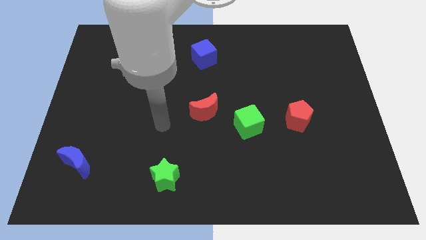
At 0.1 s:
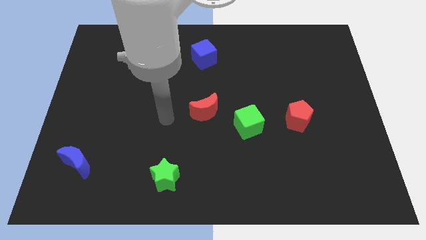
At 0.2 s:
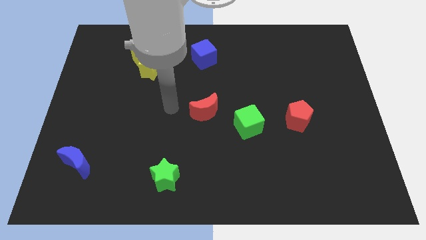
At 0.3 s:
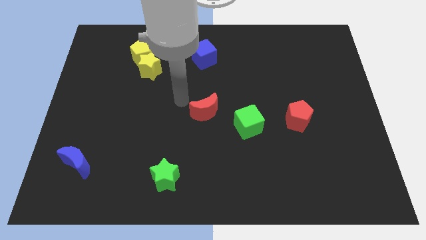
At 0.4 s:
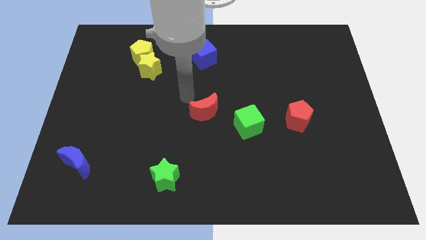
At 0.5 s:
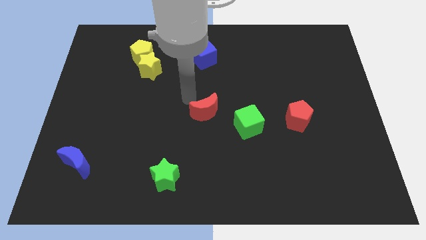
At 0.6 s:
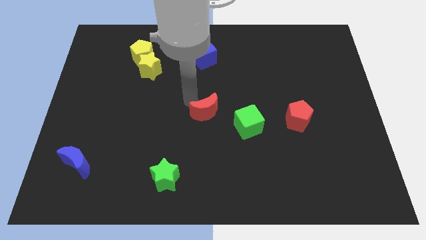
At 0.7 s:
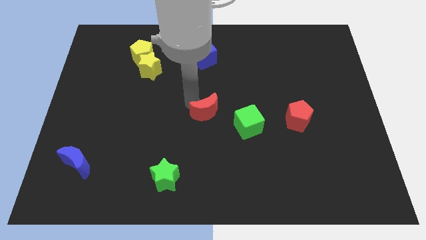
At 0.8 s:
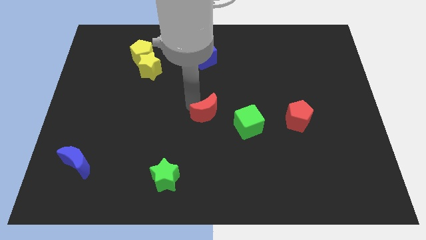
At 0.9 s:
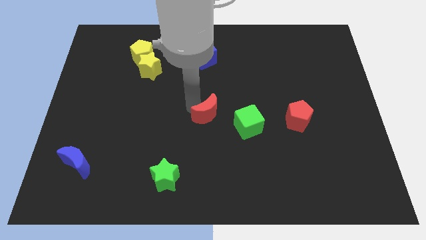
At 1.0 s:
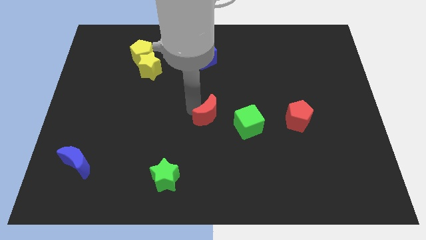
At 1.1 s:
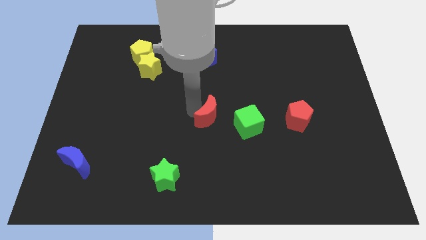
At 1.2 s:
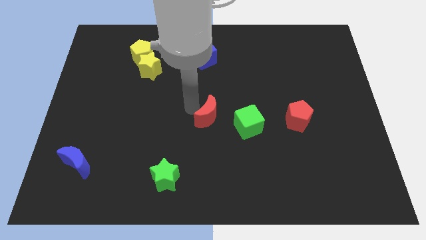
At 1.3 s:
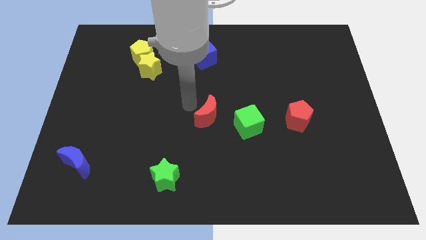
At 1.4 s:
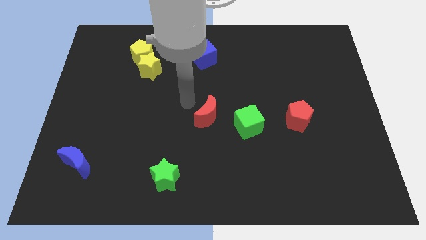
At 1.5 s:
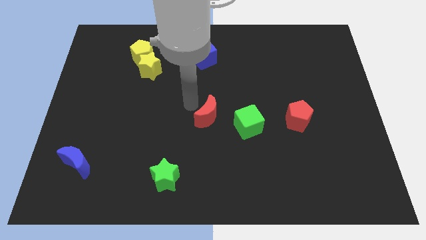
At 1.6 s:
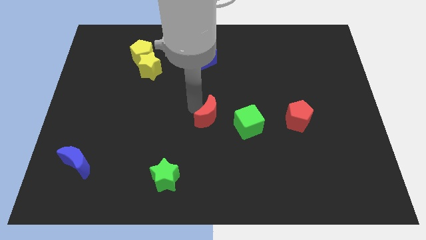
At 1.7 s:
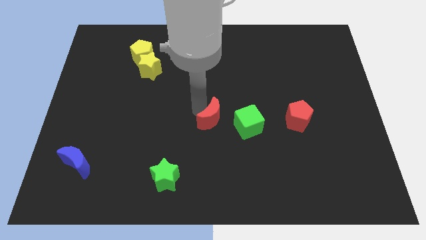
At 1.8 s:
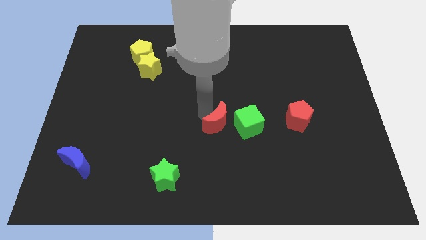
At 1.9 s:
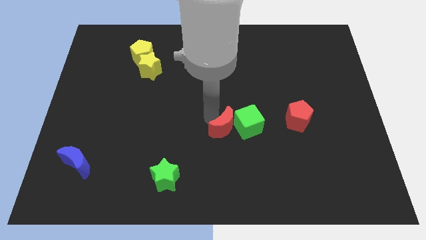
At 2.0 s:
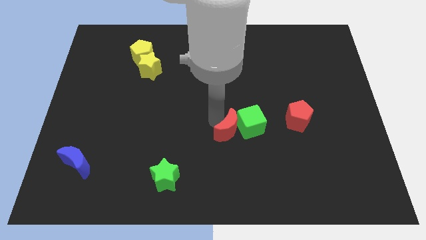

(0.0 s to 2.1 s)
push the red moon somewhat downwards and then right

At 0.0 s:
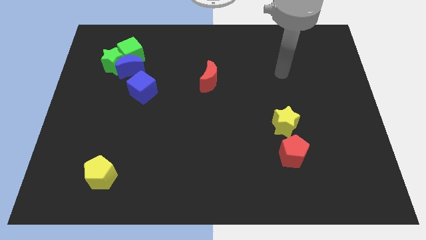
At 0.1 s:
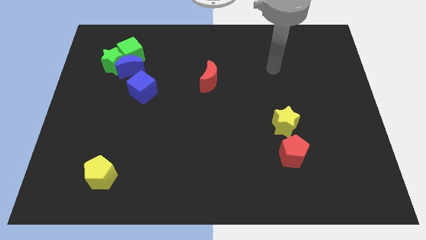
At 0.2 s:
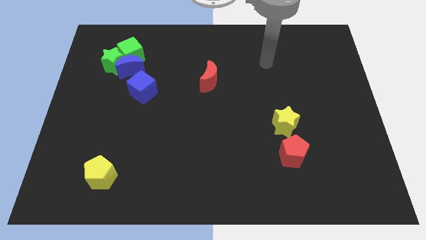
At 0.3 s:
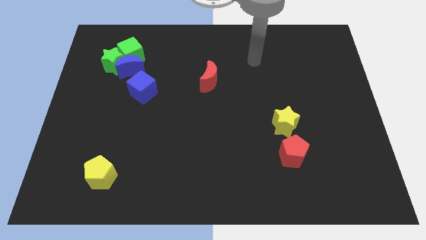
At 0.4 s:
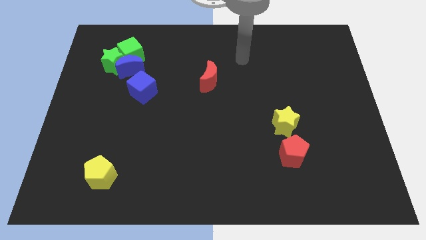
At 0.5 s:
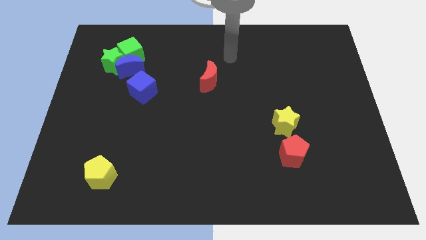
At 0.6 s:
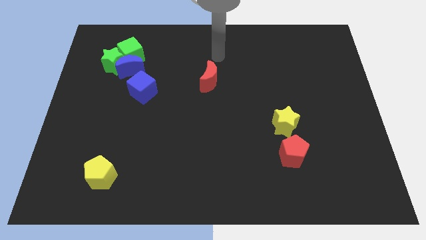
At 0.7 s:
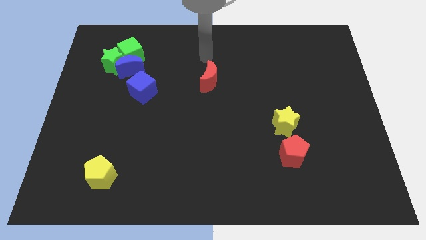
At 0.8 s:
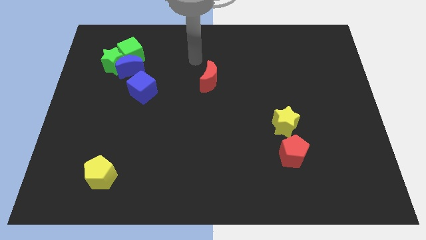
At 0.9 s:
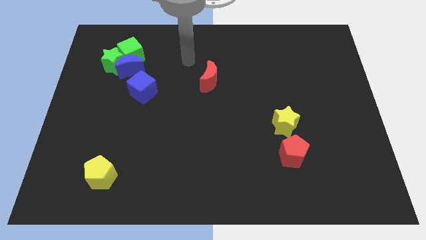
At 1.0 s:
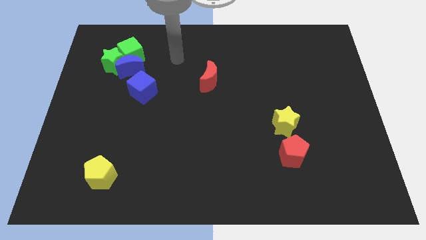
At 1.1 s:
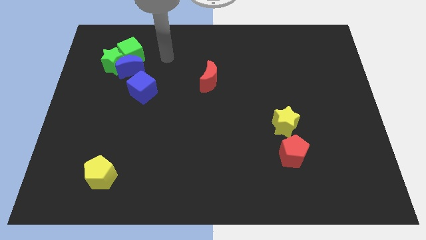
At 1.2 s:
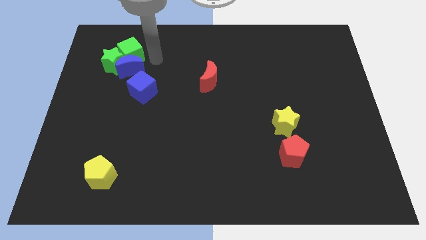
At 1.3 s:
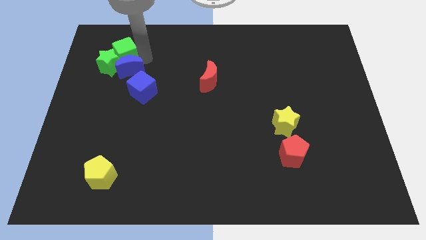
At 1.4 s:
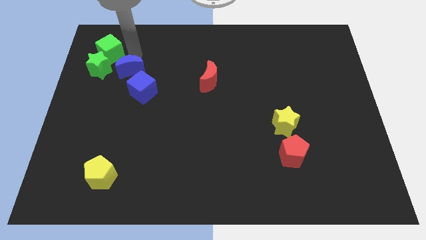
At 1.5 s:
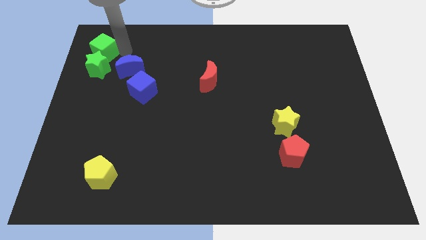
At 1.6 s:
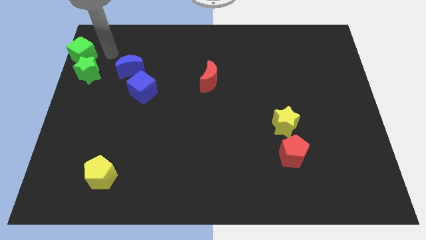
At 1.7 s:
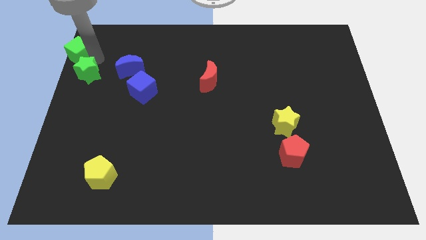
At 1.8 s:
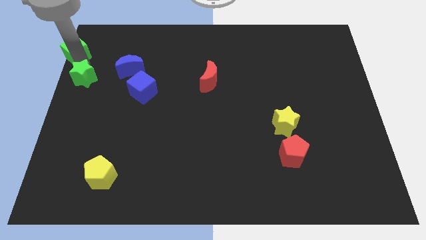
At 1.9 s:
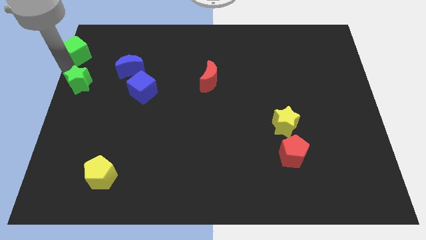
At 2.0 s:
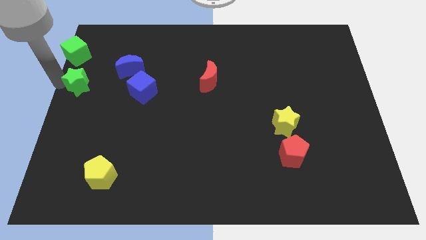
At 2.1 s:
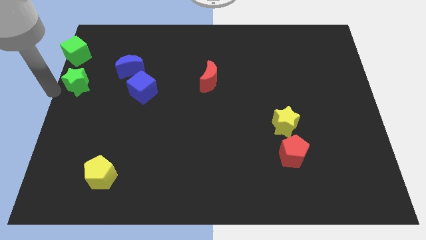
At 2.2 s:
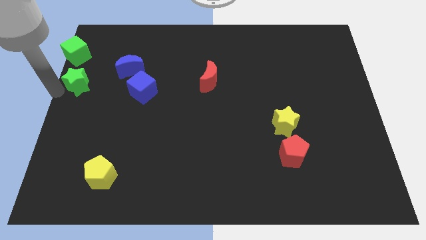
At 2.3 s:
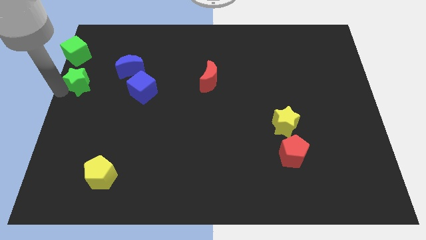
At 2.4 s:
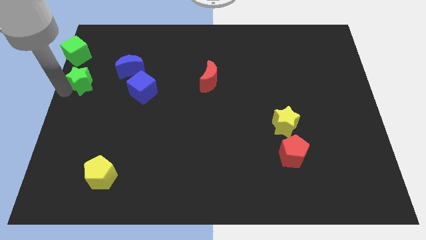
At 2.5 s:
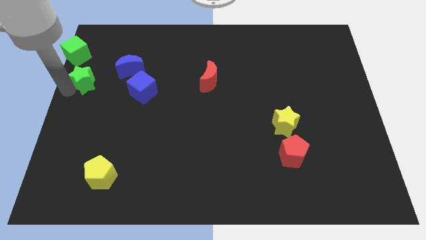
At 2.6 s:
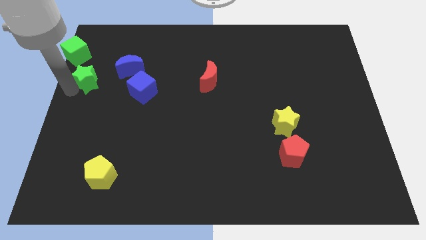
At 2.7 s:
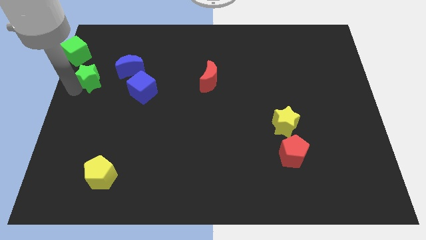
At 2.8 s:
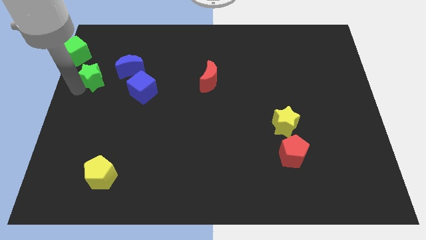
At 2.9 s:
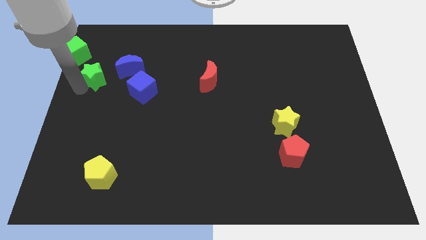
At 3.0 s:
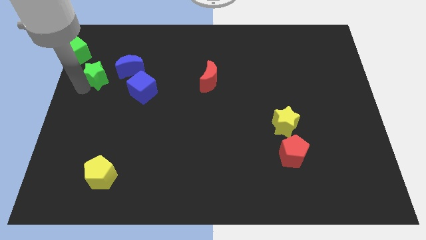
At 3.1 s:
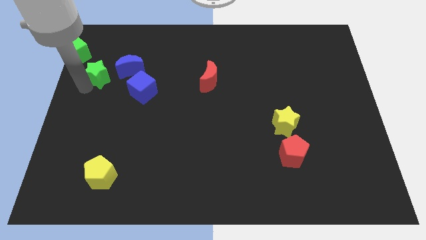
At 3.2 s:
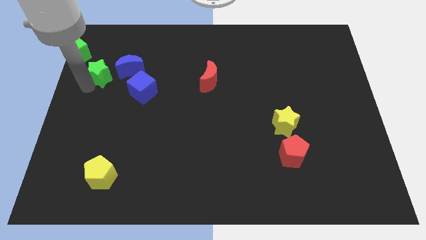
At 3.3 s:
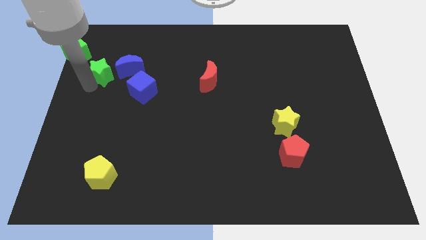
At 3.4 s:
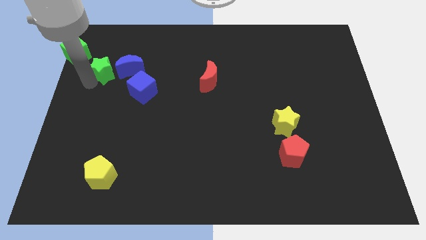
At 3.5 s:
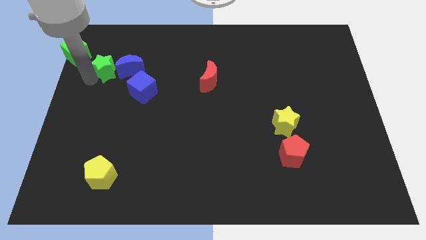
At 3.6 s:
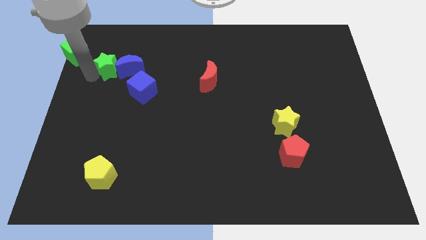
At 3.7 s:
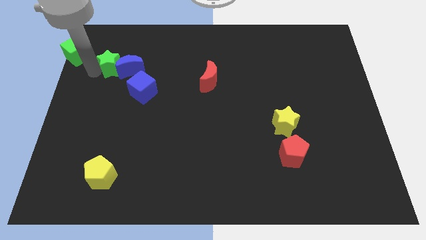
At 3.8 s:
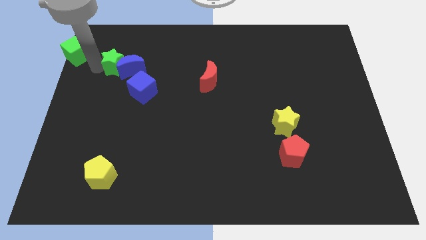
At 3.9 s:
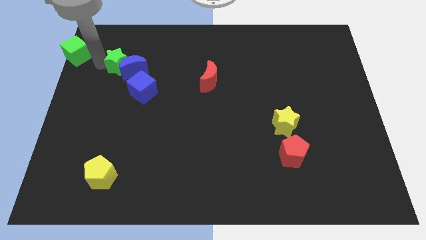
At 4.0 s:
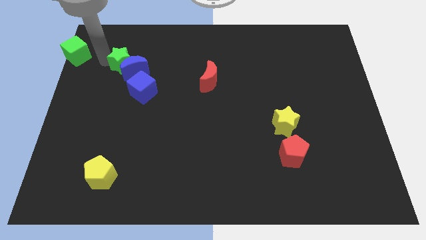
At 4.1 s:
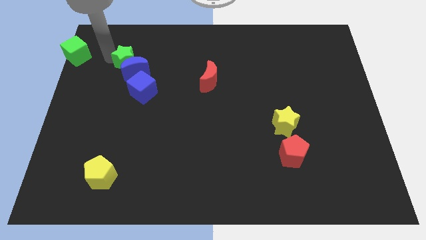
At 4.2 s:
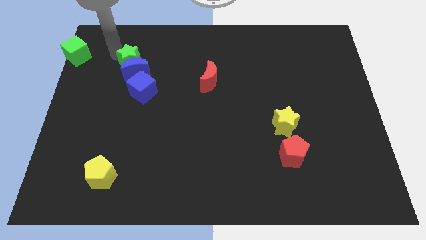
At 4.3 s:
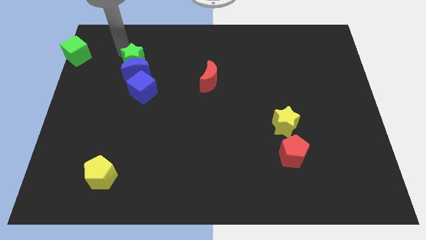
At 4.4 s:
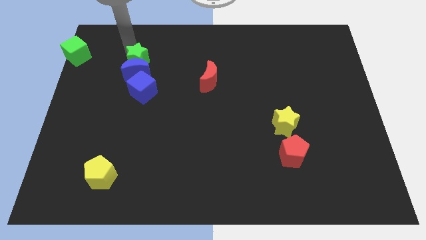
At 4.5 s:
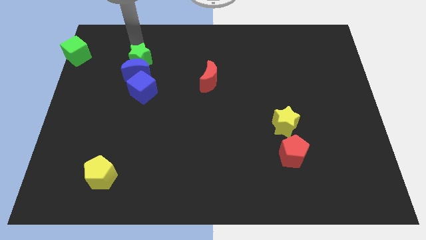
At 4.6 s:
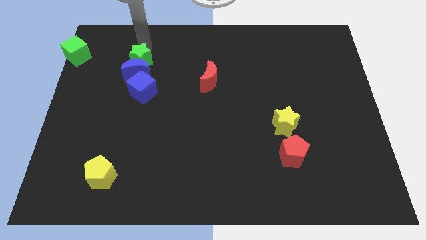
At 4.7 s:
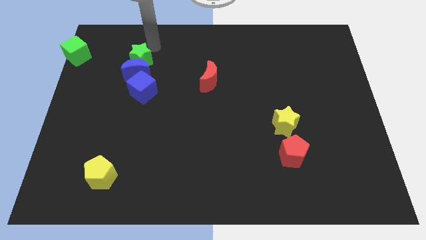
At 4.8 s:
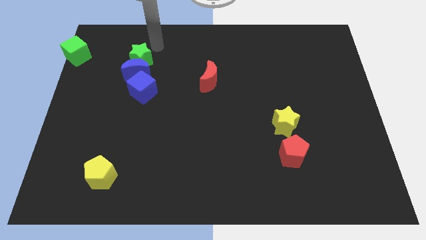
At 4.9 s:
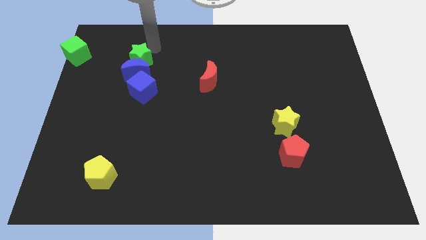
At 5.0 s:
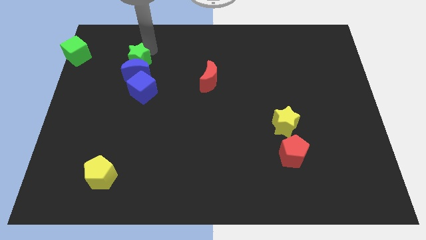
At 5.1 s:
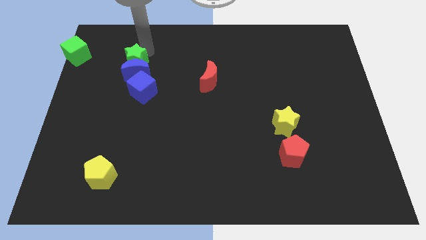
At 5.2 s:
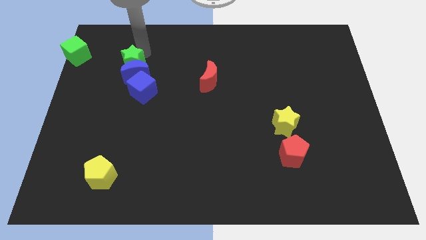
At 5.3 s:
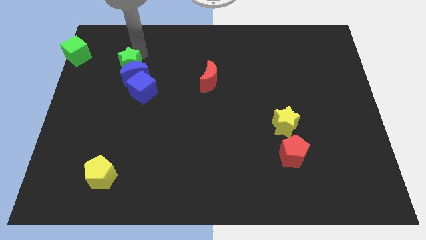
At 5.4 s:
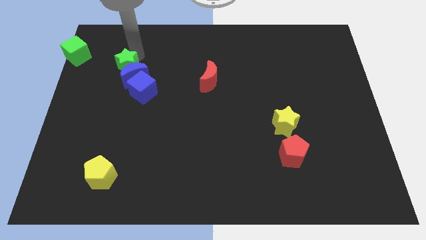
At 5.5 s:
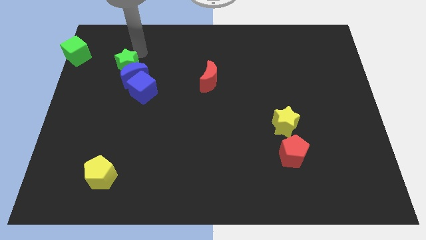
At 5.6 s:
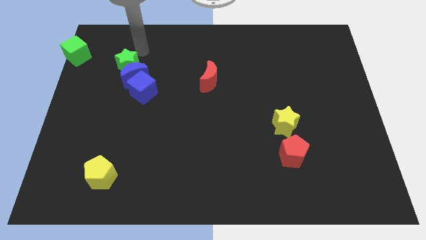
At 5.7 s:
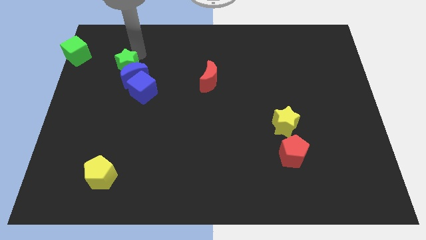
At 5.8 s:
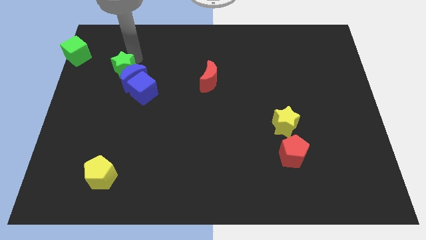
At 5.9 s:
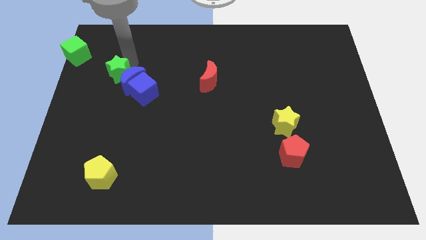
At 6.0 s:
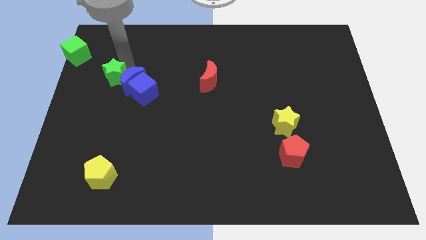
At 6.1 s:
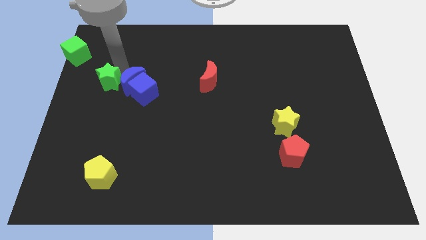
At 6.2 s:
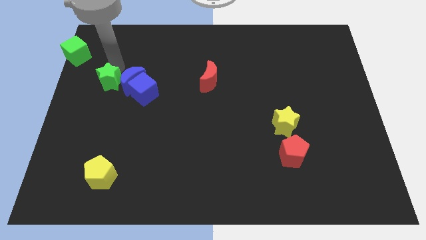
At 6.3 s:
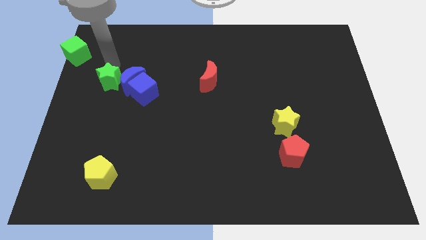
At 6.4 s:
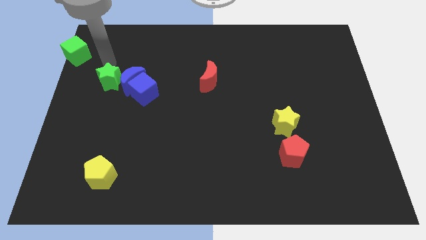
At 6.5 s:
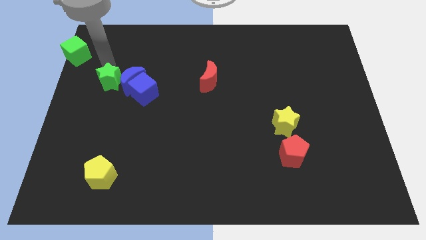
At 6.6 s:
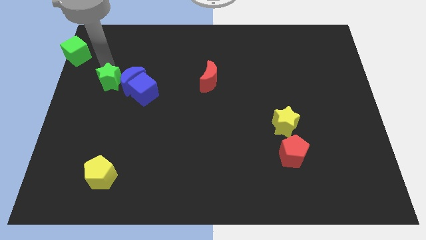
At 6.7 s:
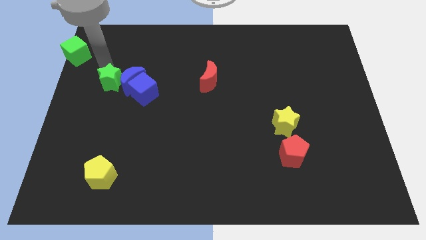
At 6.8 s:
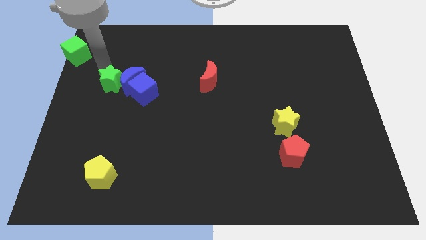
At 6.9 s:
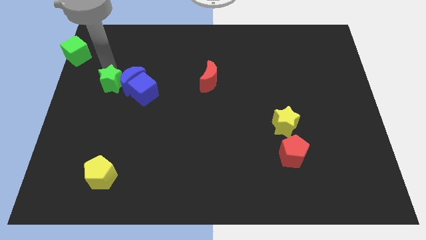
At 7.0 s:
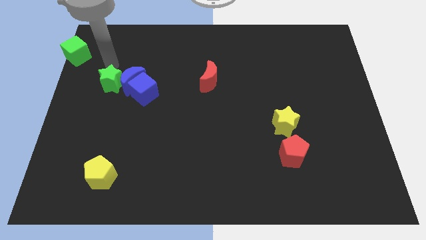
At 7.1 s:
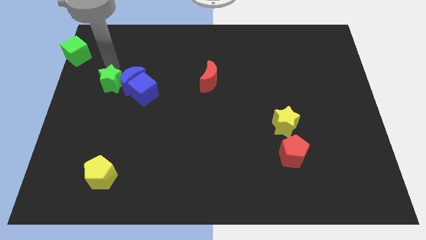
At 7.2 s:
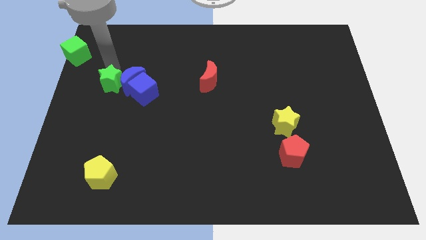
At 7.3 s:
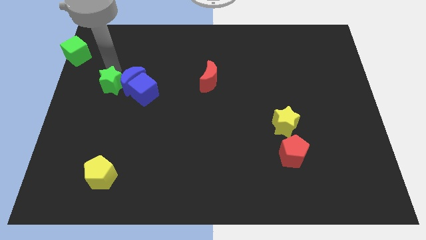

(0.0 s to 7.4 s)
push the green star a little down
